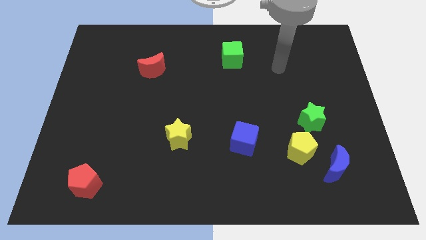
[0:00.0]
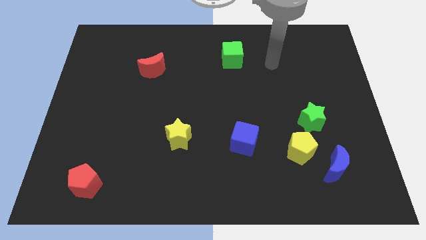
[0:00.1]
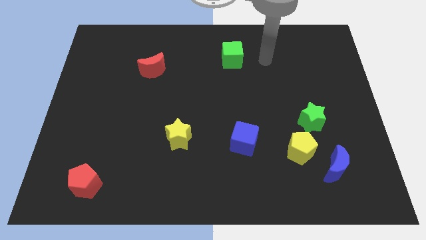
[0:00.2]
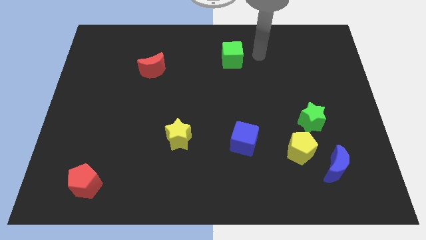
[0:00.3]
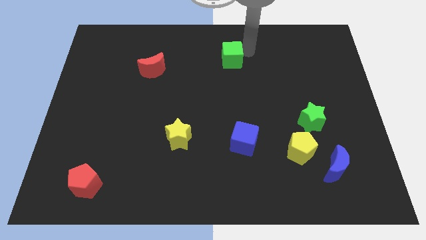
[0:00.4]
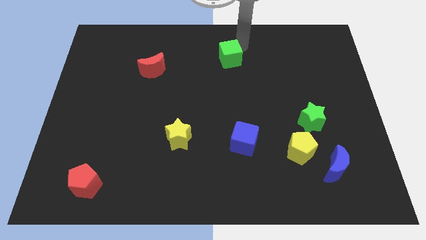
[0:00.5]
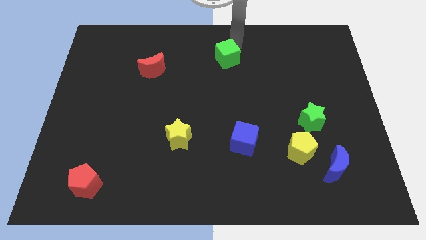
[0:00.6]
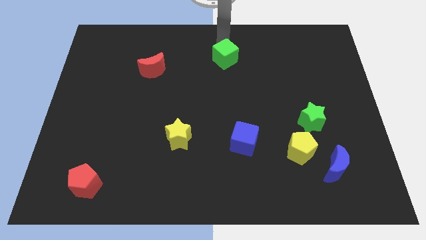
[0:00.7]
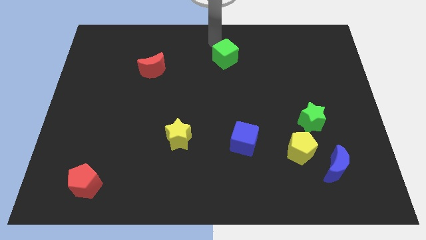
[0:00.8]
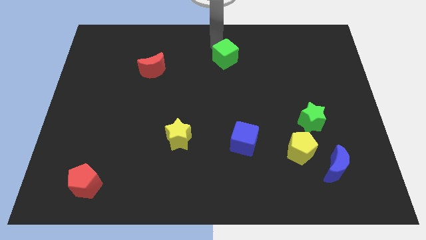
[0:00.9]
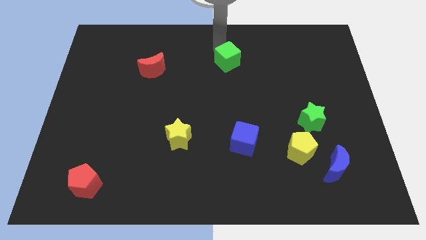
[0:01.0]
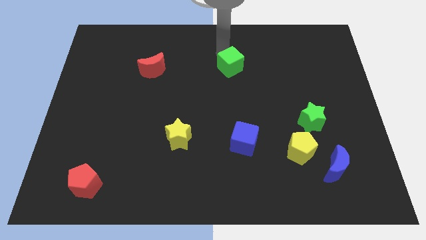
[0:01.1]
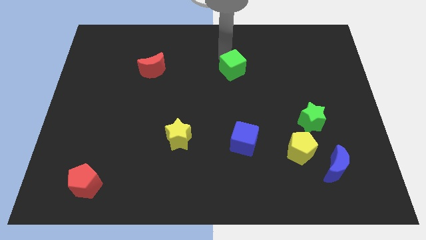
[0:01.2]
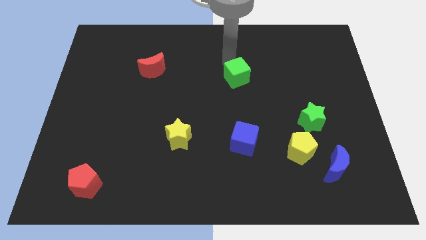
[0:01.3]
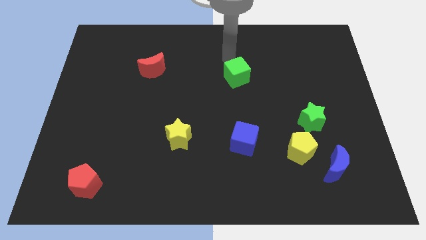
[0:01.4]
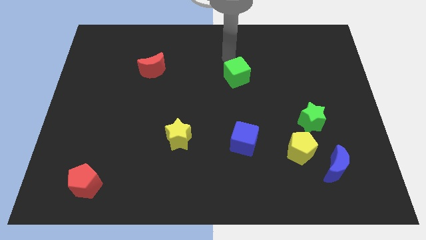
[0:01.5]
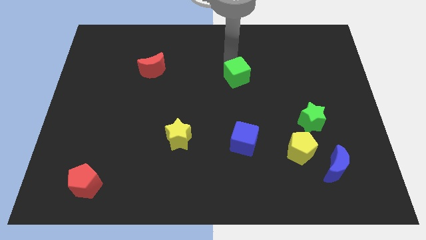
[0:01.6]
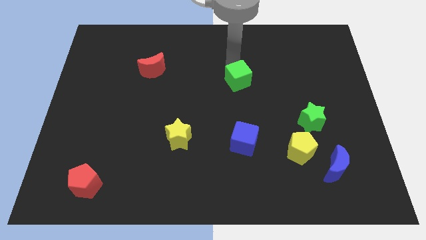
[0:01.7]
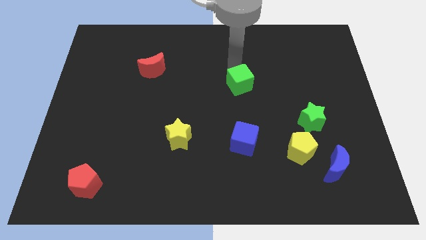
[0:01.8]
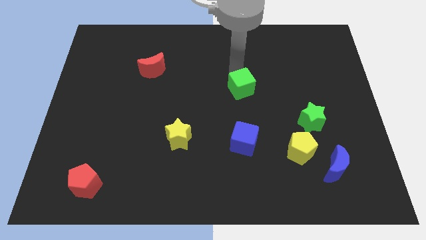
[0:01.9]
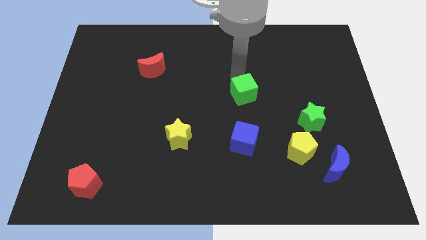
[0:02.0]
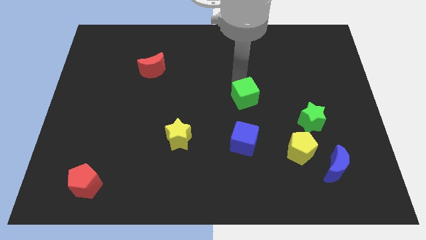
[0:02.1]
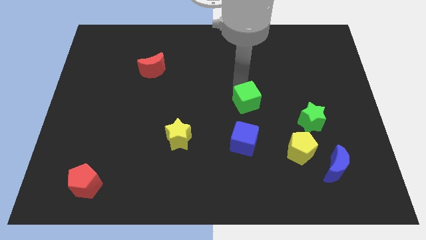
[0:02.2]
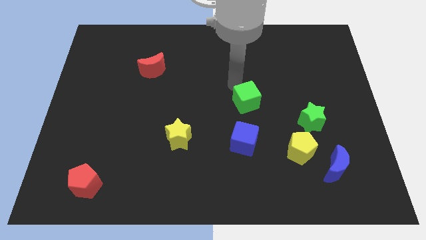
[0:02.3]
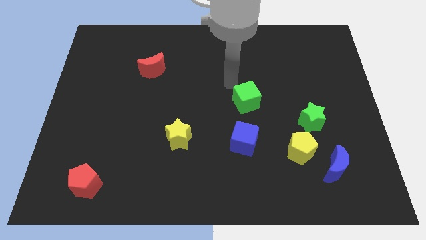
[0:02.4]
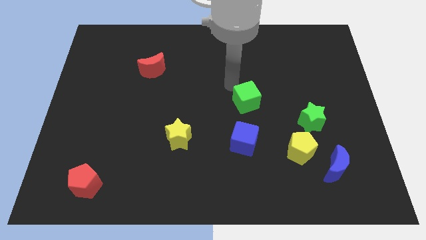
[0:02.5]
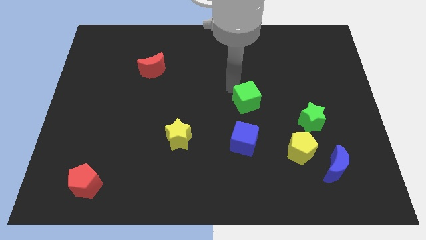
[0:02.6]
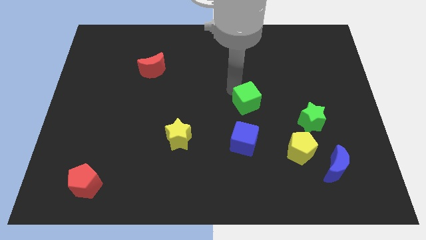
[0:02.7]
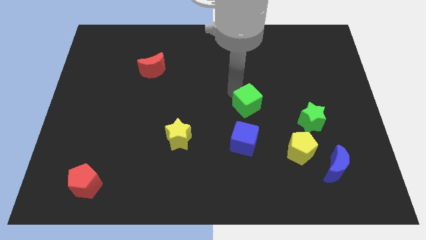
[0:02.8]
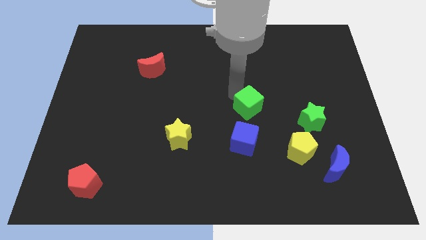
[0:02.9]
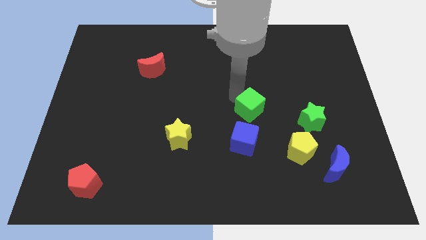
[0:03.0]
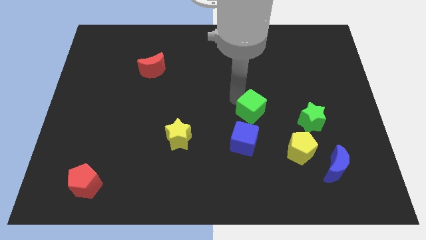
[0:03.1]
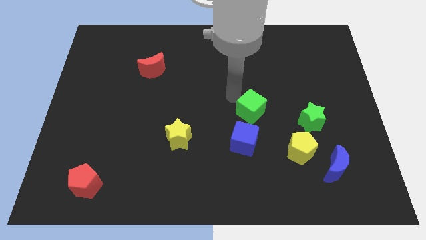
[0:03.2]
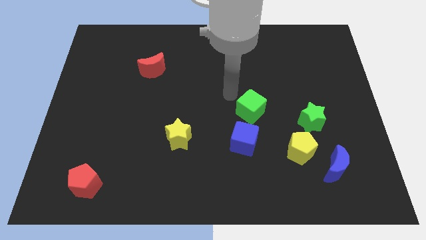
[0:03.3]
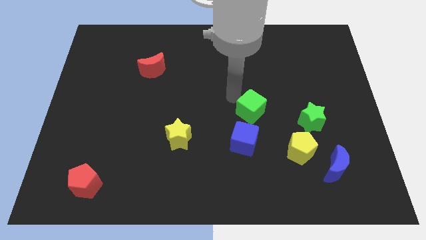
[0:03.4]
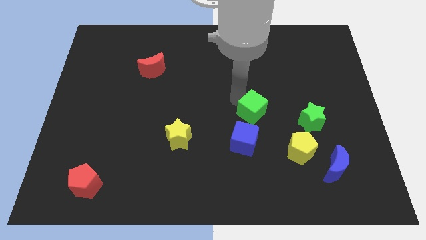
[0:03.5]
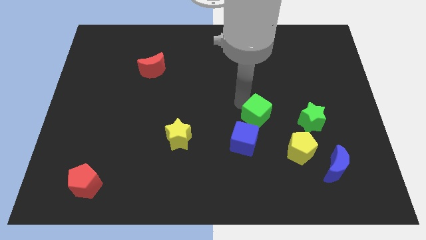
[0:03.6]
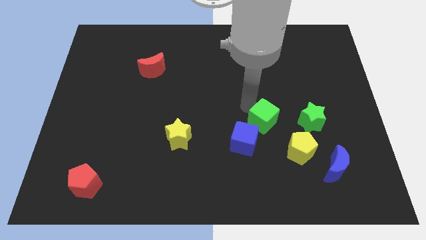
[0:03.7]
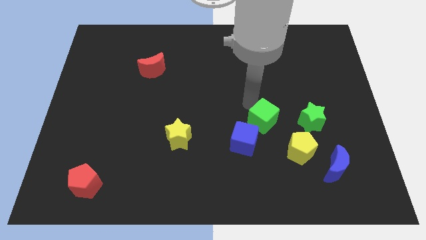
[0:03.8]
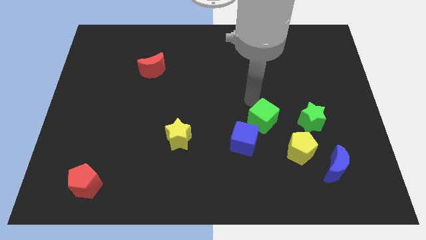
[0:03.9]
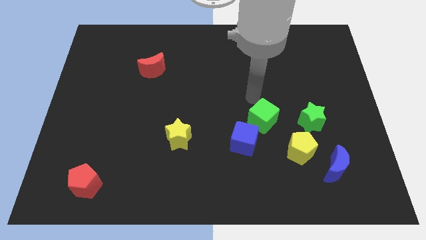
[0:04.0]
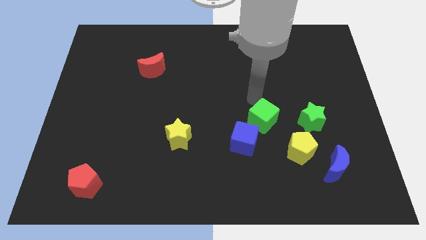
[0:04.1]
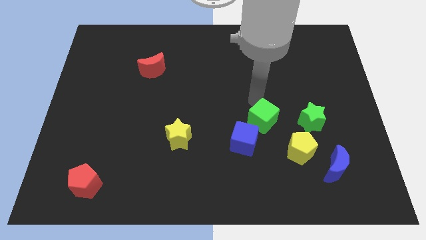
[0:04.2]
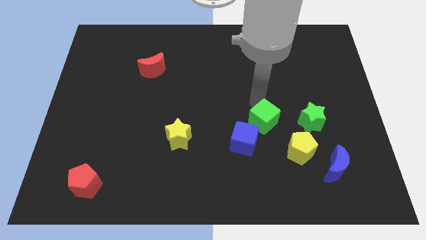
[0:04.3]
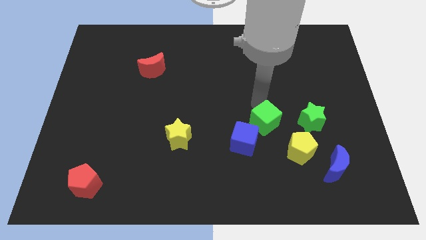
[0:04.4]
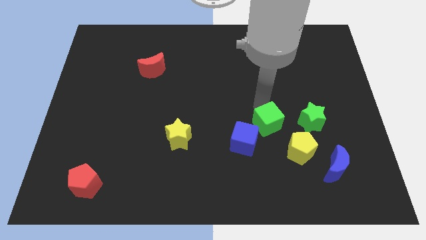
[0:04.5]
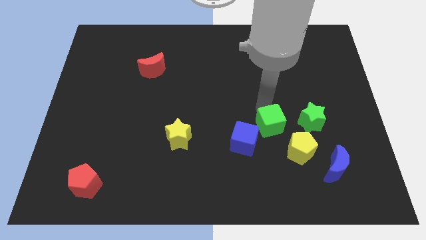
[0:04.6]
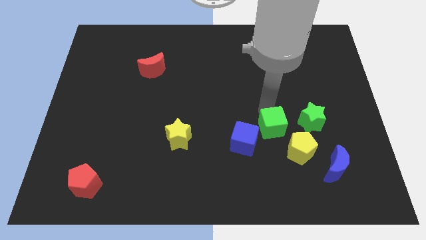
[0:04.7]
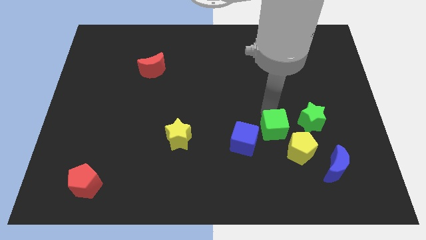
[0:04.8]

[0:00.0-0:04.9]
move the green cube diagonally down and to the left of the green star

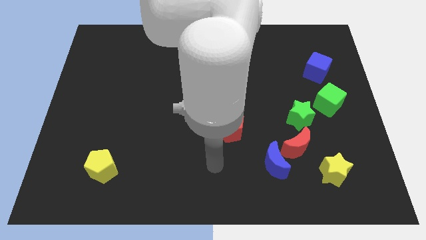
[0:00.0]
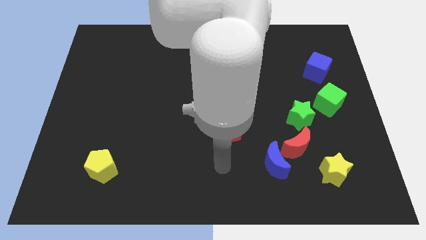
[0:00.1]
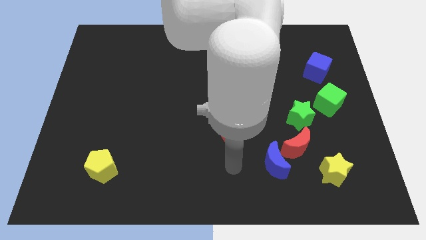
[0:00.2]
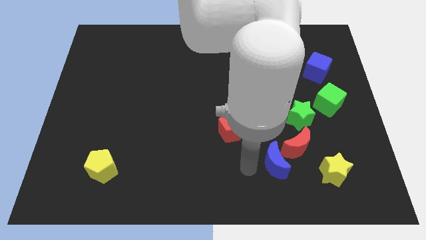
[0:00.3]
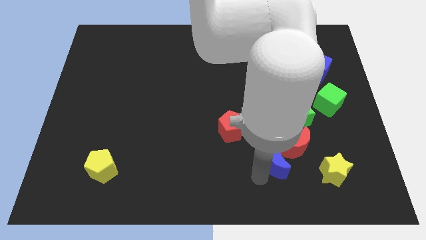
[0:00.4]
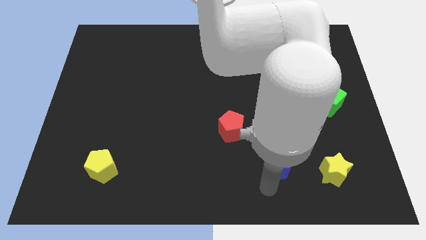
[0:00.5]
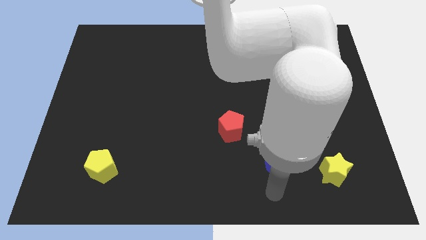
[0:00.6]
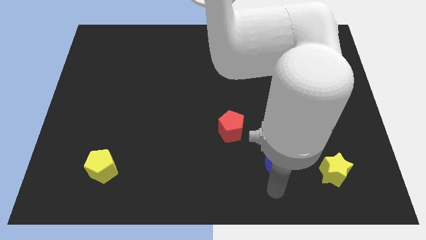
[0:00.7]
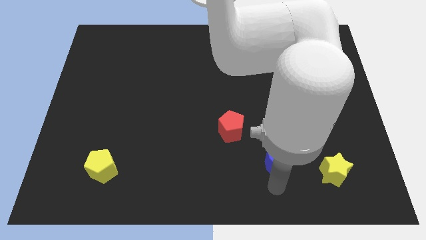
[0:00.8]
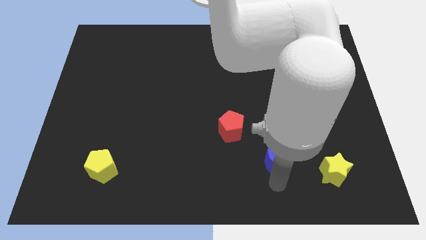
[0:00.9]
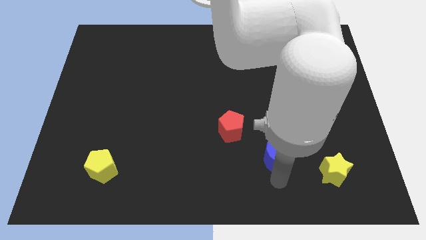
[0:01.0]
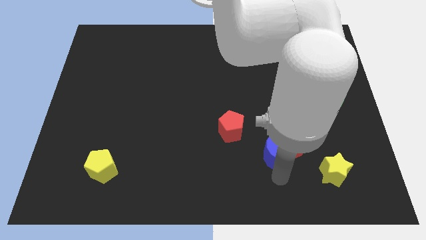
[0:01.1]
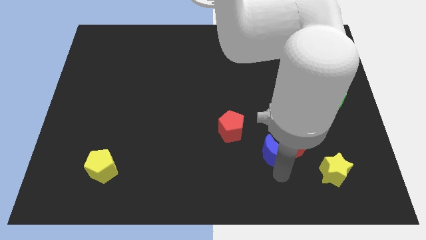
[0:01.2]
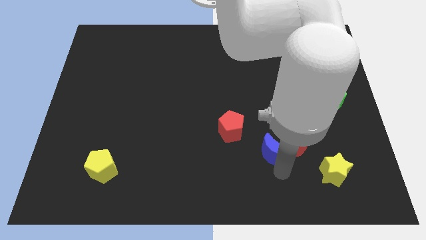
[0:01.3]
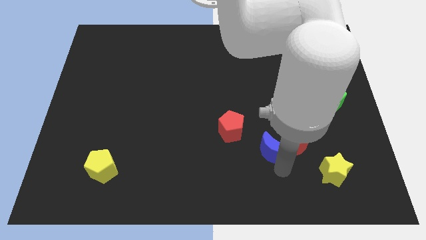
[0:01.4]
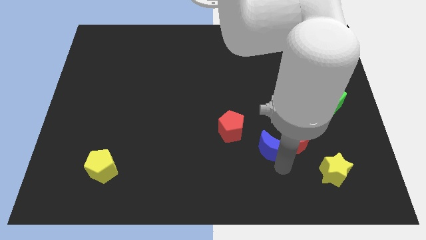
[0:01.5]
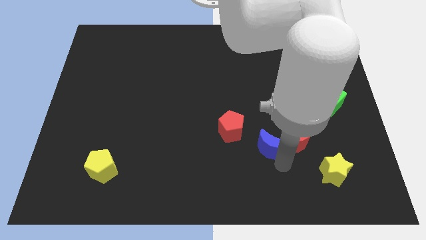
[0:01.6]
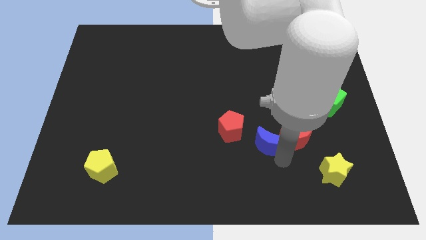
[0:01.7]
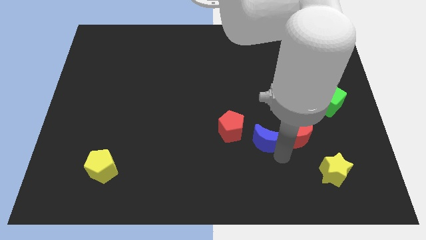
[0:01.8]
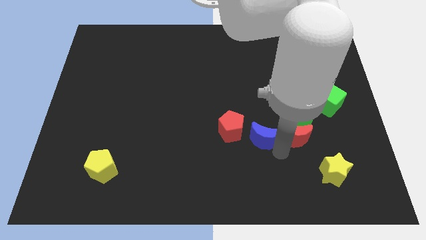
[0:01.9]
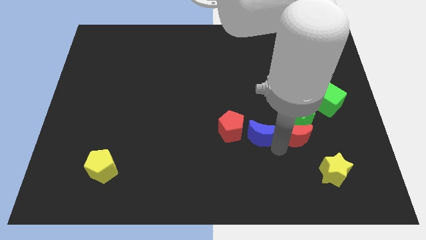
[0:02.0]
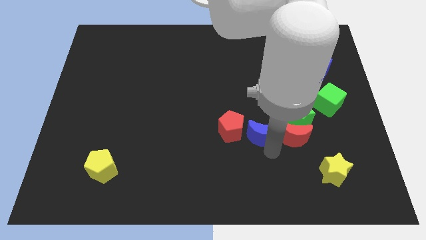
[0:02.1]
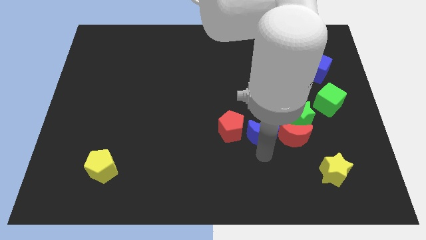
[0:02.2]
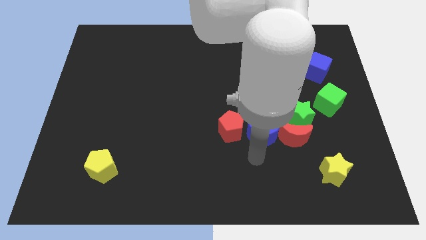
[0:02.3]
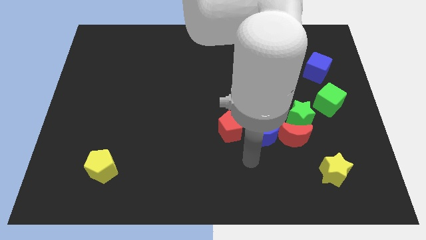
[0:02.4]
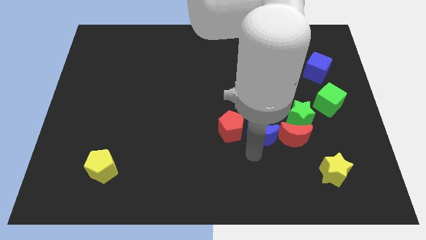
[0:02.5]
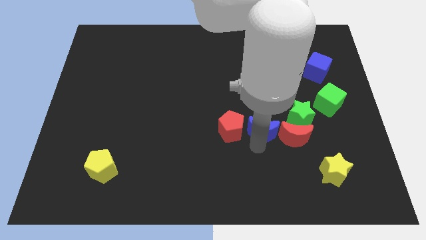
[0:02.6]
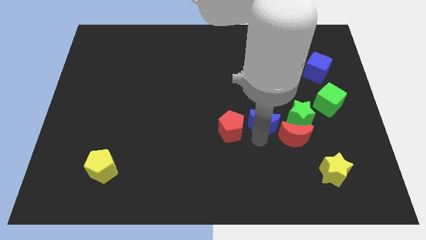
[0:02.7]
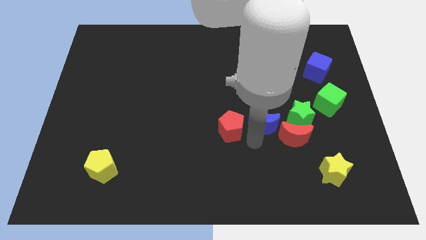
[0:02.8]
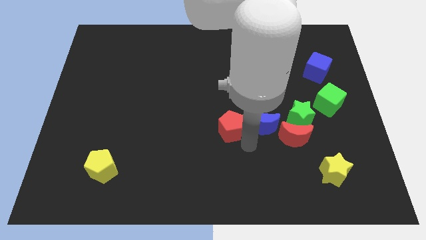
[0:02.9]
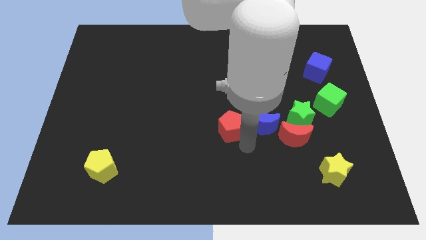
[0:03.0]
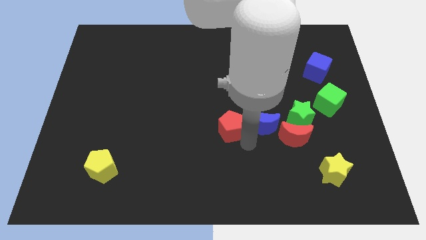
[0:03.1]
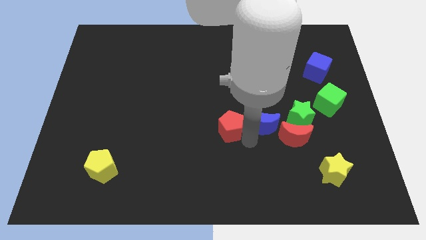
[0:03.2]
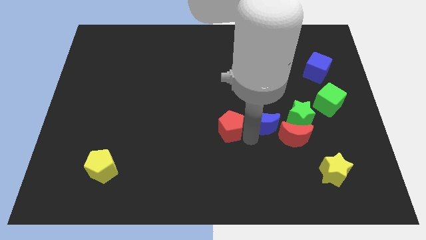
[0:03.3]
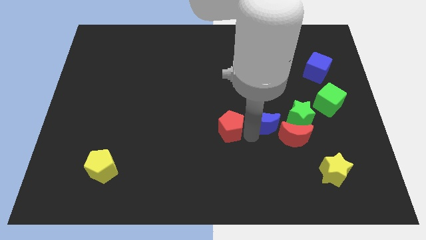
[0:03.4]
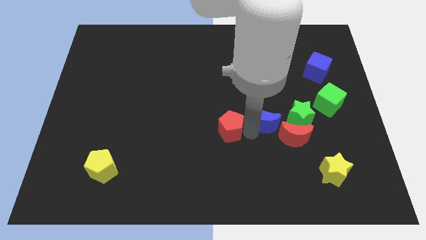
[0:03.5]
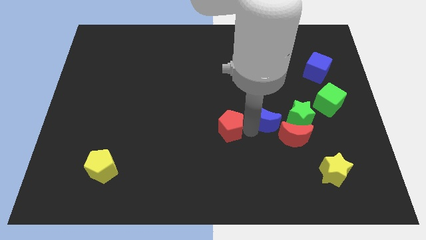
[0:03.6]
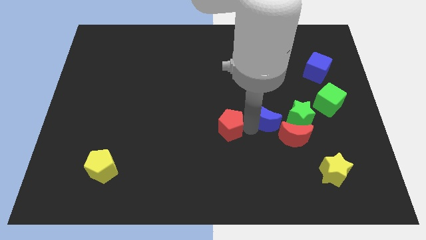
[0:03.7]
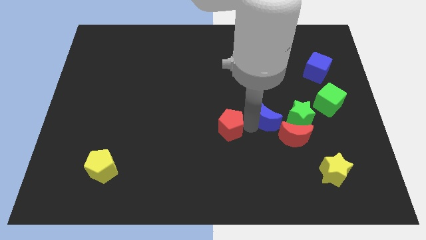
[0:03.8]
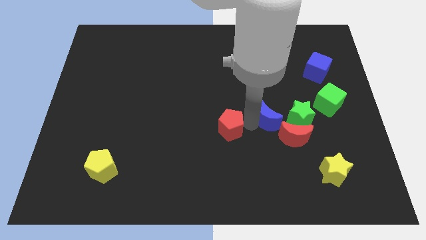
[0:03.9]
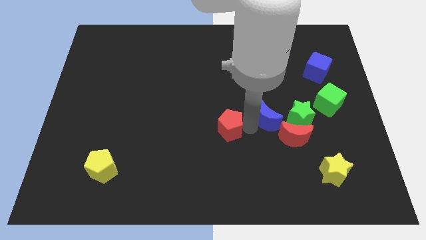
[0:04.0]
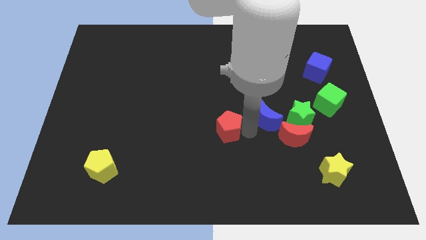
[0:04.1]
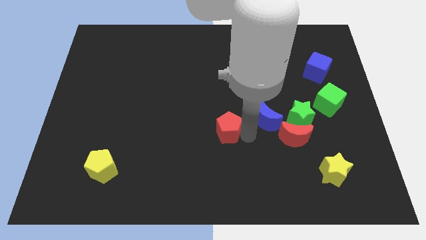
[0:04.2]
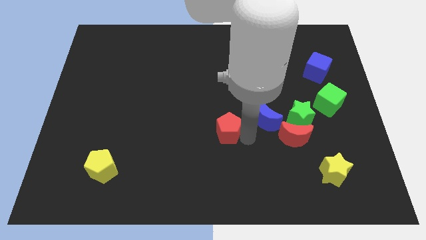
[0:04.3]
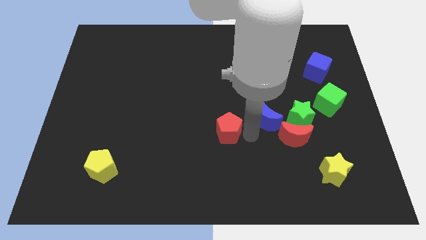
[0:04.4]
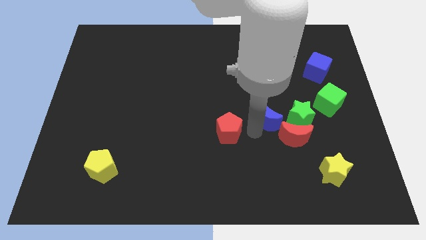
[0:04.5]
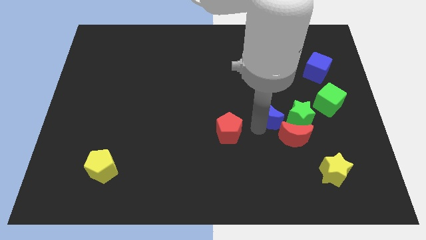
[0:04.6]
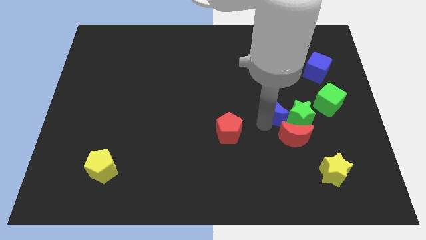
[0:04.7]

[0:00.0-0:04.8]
put the blue moon to the top left of the green star
